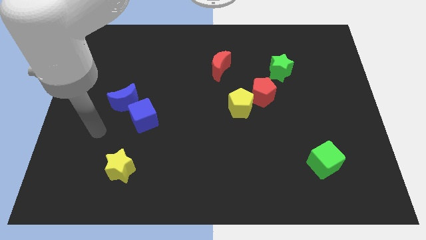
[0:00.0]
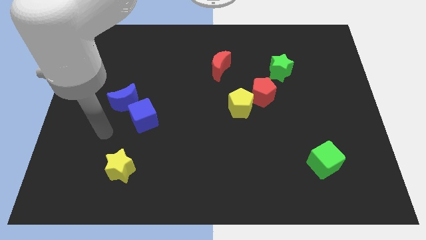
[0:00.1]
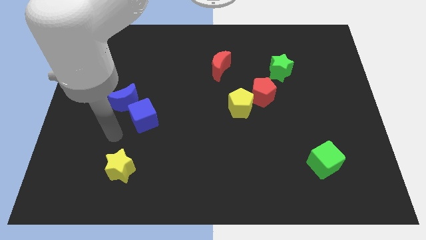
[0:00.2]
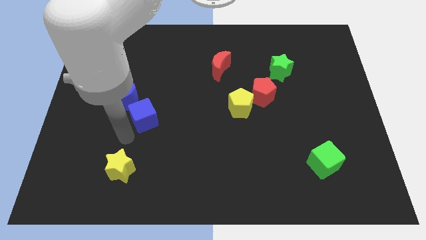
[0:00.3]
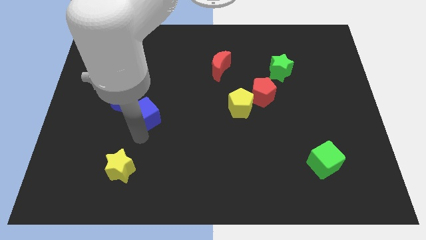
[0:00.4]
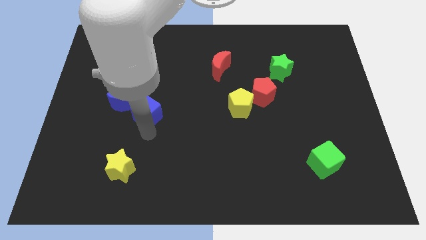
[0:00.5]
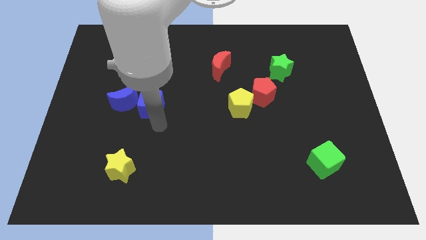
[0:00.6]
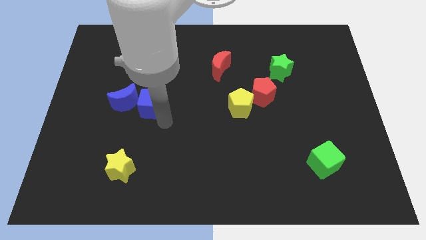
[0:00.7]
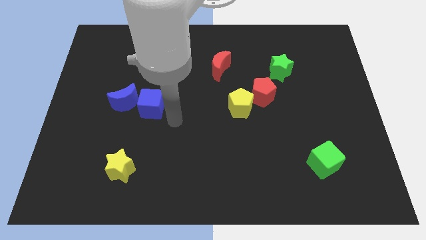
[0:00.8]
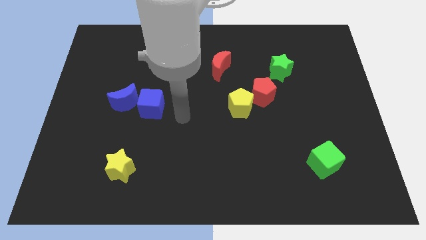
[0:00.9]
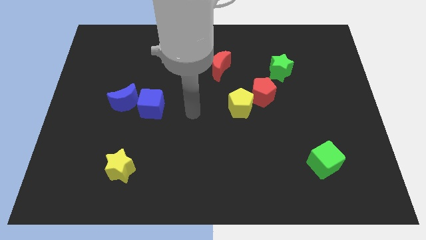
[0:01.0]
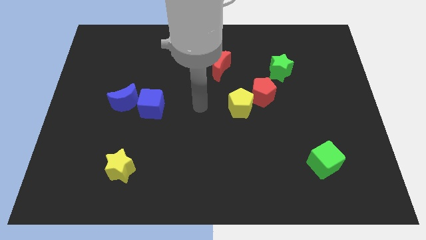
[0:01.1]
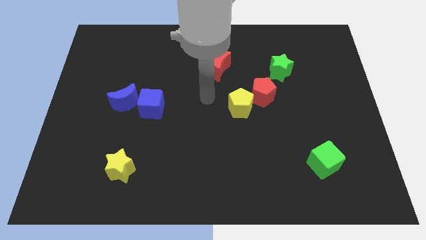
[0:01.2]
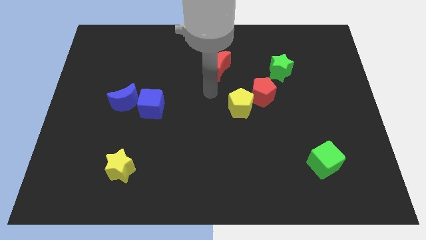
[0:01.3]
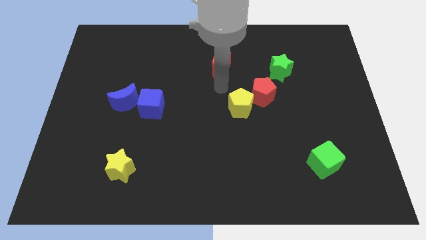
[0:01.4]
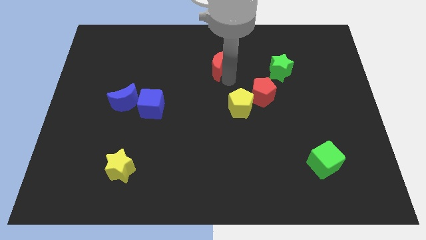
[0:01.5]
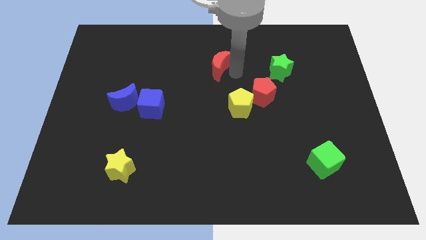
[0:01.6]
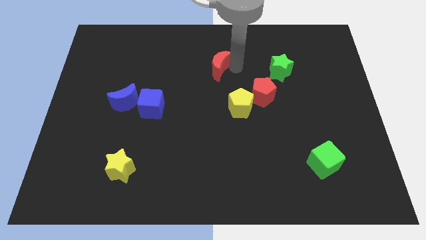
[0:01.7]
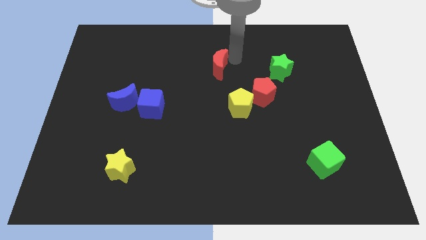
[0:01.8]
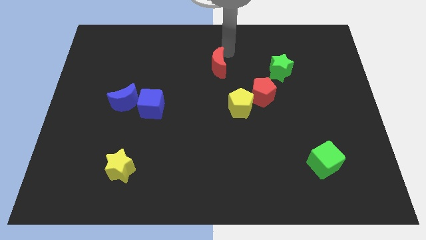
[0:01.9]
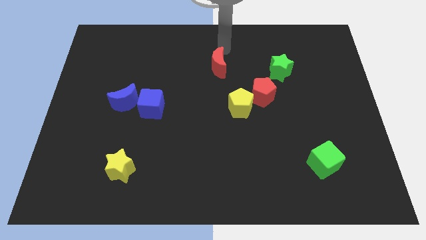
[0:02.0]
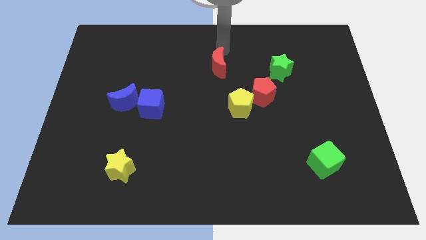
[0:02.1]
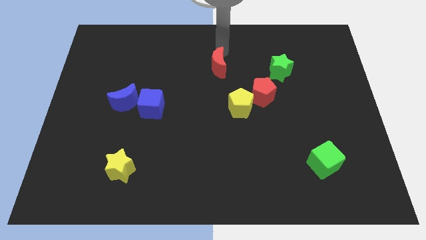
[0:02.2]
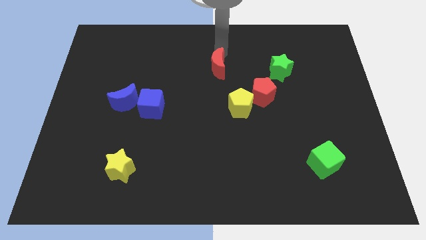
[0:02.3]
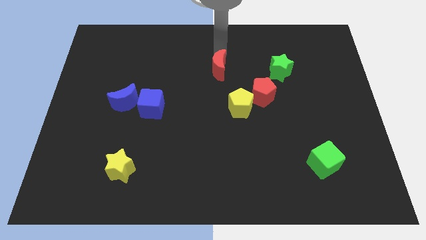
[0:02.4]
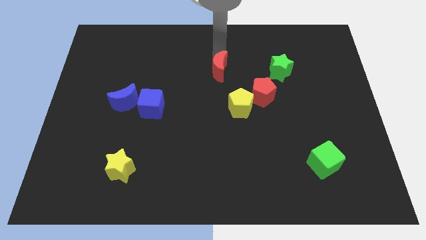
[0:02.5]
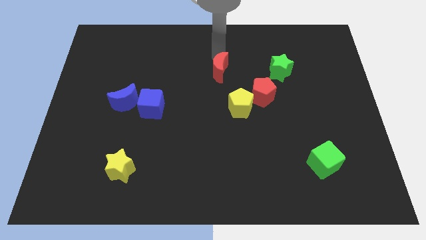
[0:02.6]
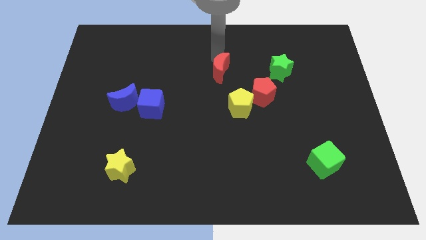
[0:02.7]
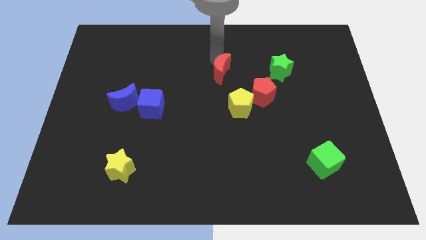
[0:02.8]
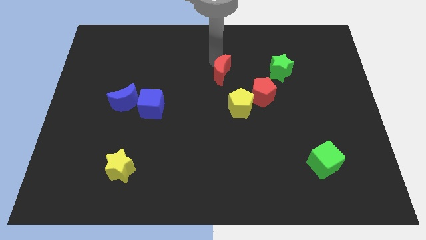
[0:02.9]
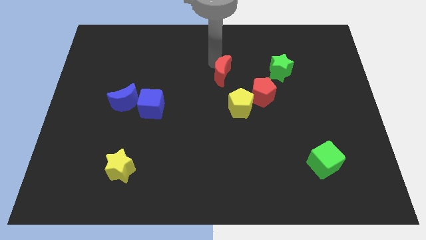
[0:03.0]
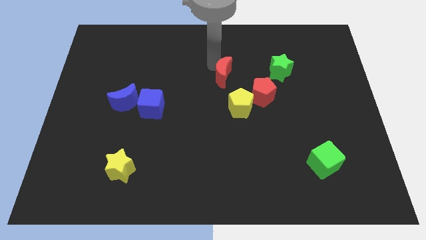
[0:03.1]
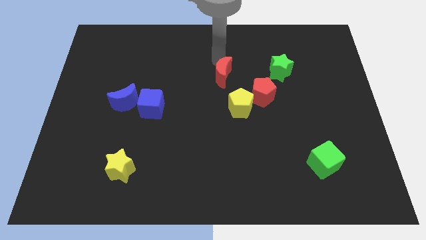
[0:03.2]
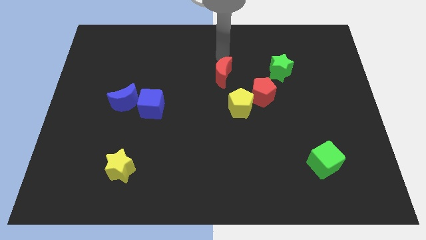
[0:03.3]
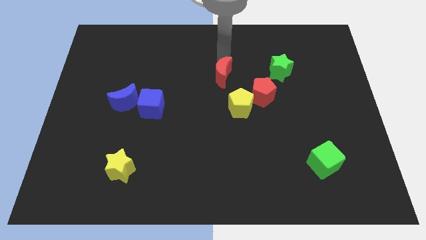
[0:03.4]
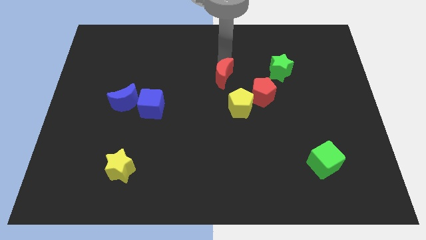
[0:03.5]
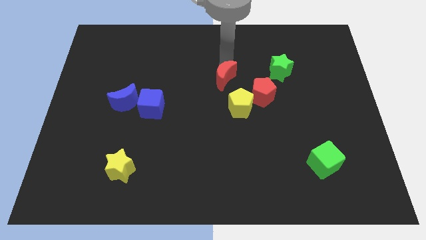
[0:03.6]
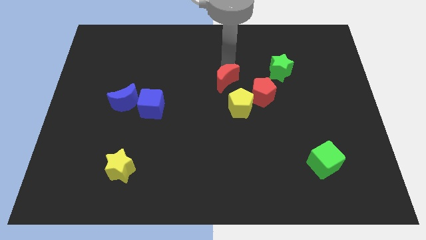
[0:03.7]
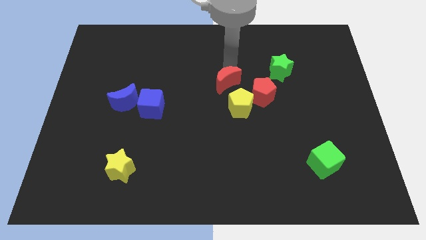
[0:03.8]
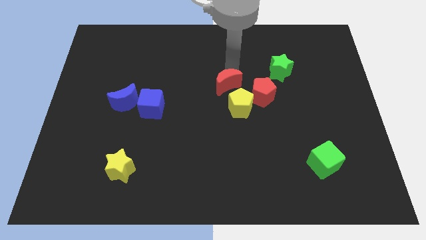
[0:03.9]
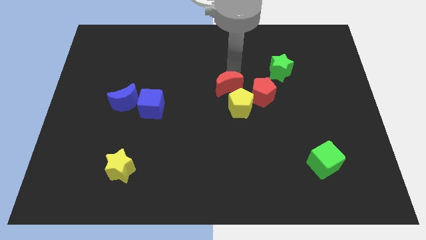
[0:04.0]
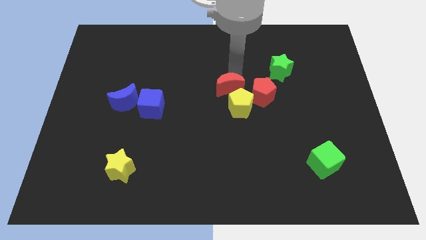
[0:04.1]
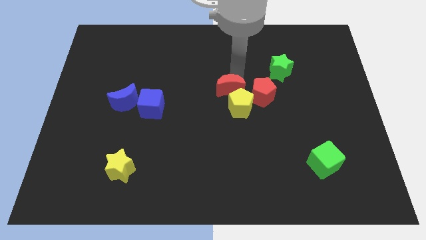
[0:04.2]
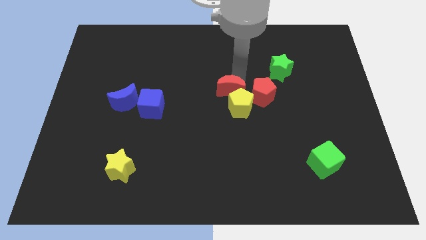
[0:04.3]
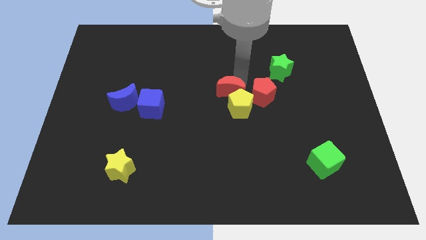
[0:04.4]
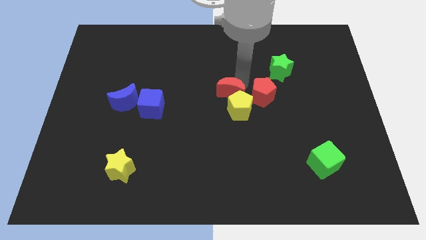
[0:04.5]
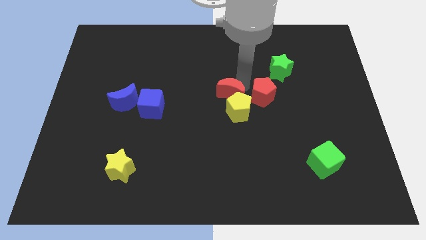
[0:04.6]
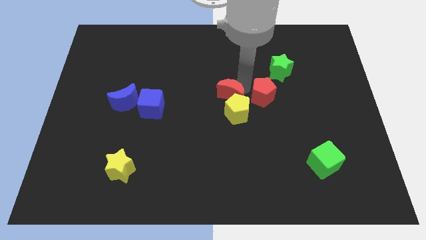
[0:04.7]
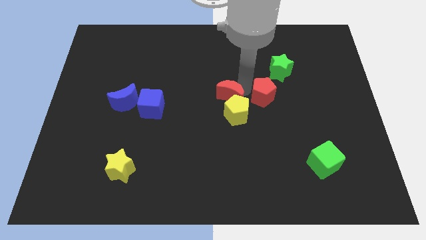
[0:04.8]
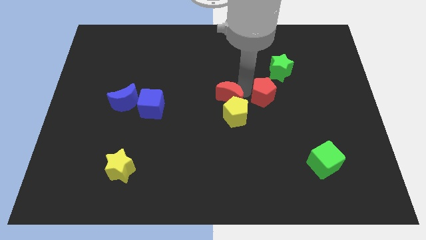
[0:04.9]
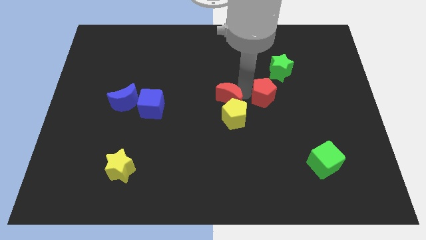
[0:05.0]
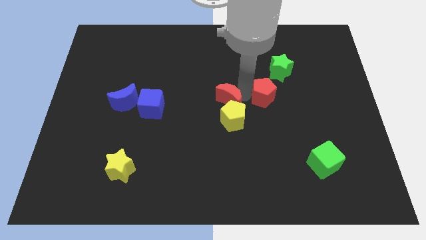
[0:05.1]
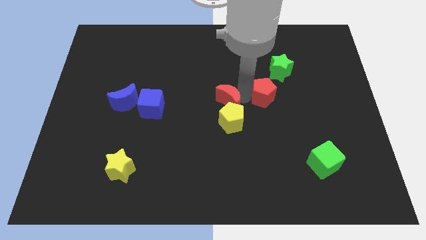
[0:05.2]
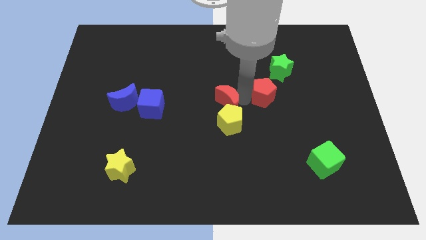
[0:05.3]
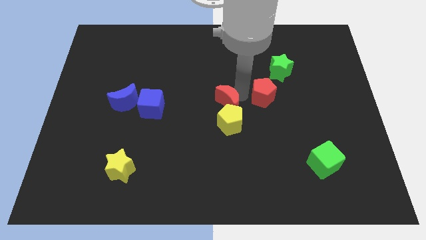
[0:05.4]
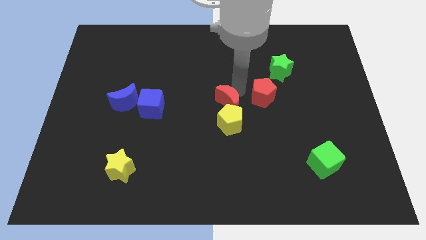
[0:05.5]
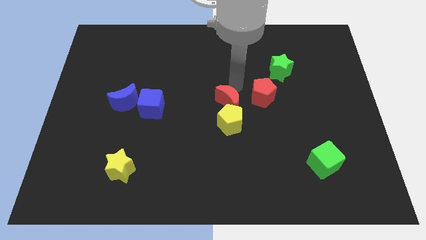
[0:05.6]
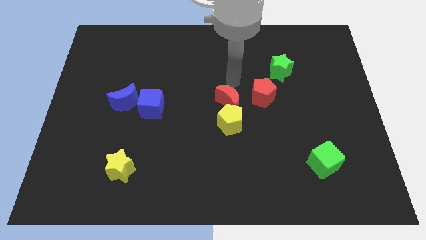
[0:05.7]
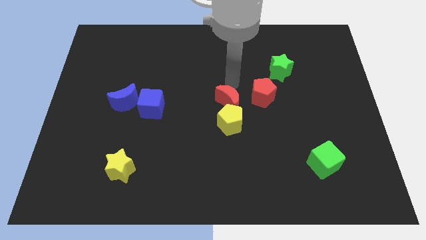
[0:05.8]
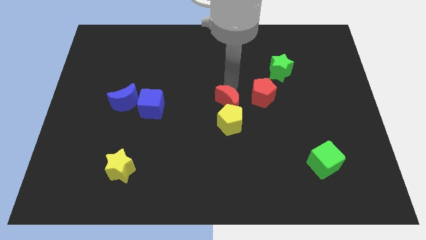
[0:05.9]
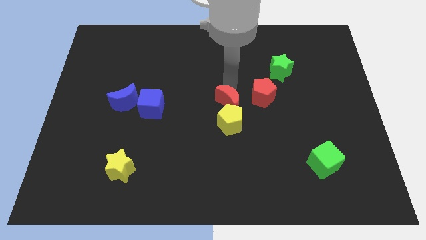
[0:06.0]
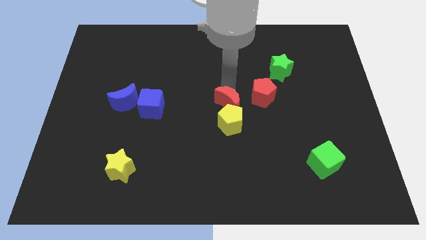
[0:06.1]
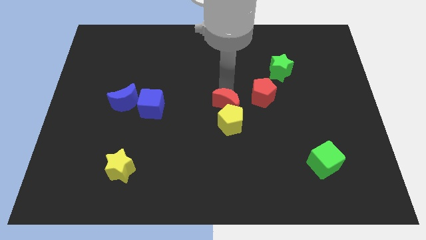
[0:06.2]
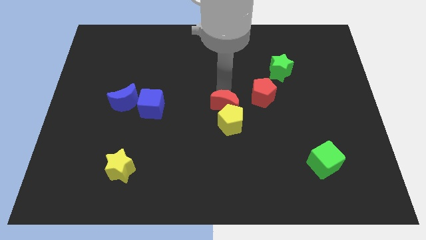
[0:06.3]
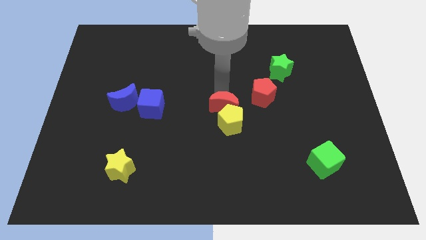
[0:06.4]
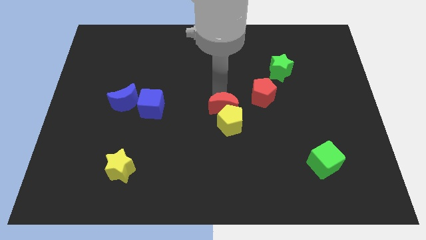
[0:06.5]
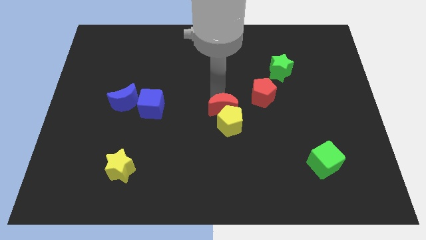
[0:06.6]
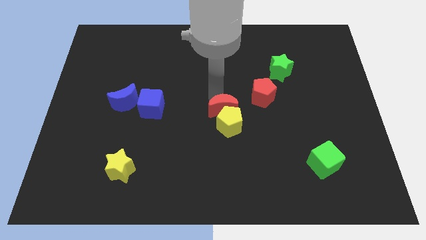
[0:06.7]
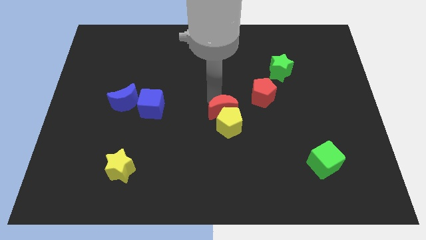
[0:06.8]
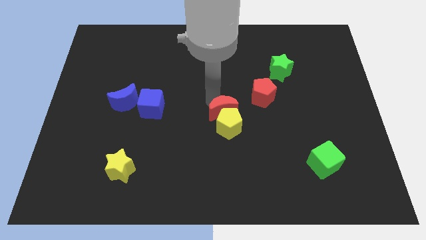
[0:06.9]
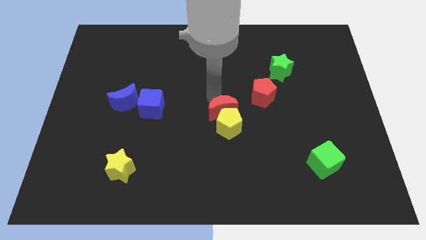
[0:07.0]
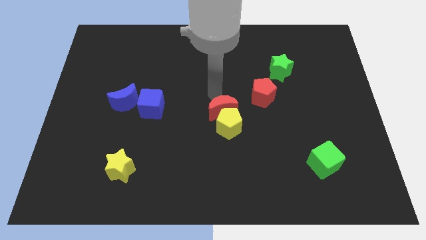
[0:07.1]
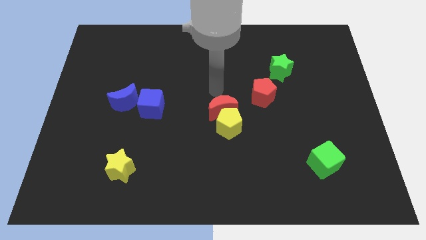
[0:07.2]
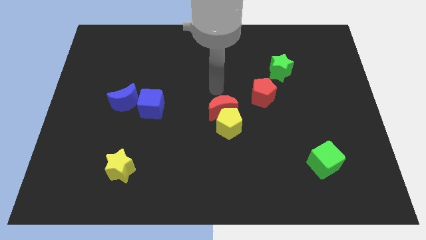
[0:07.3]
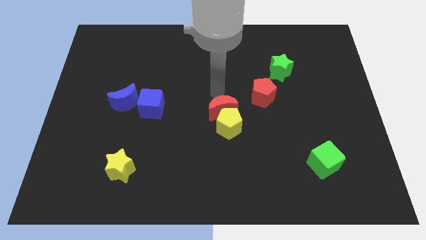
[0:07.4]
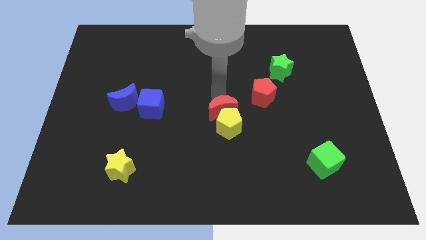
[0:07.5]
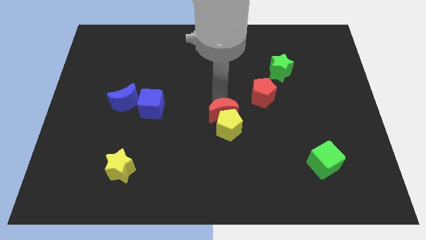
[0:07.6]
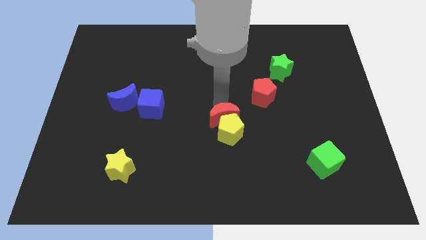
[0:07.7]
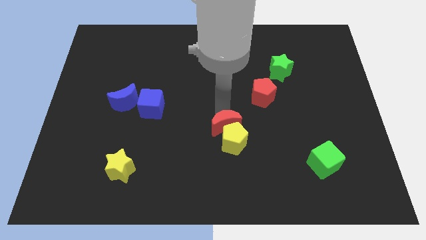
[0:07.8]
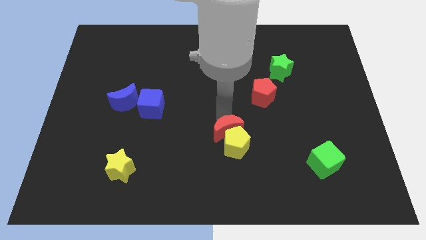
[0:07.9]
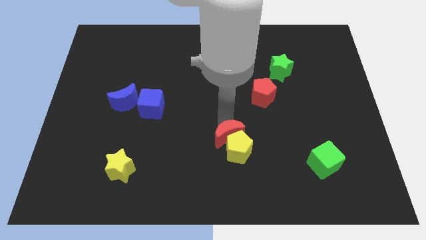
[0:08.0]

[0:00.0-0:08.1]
slide the red moon downwards
